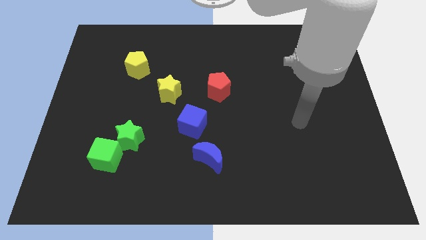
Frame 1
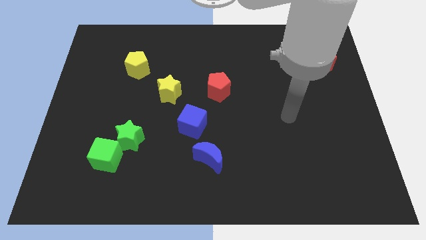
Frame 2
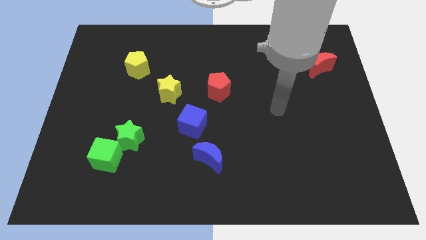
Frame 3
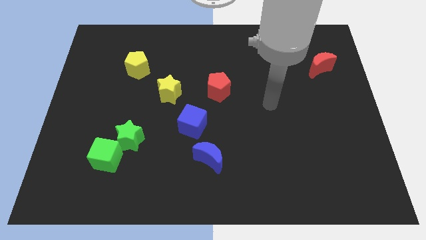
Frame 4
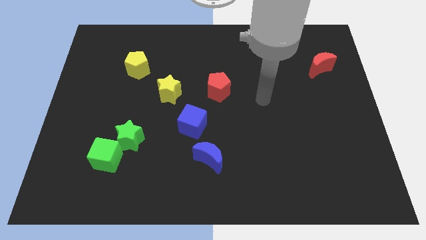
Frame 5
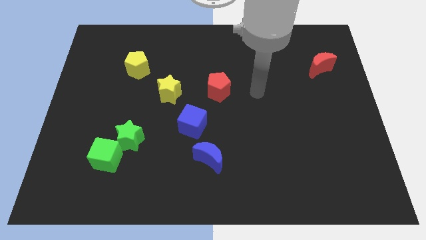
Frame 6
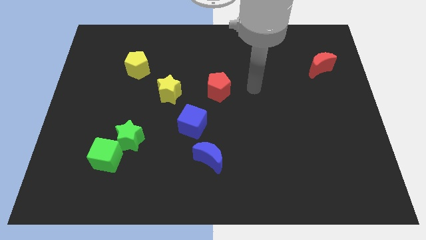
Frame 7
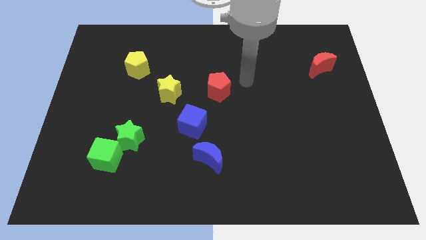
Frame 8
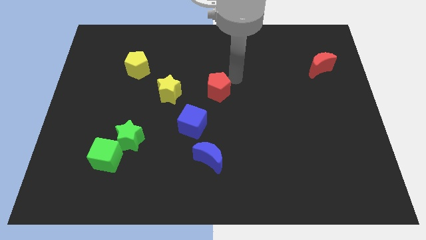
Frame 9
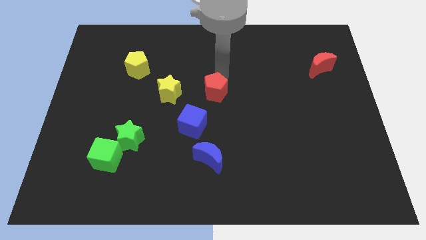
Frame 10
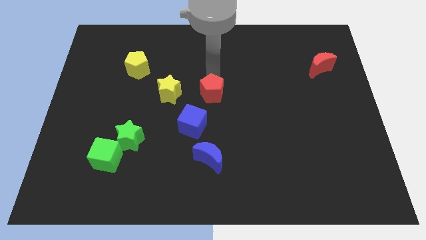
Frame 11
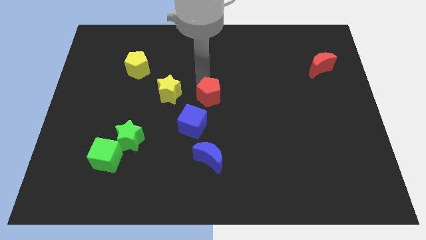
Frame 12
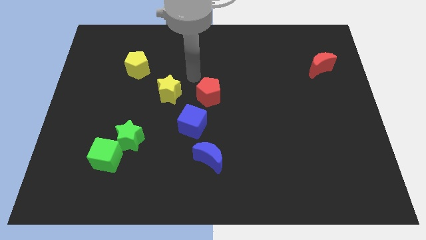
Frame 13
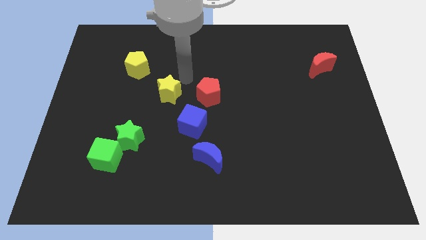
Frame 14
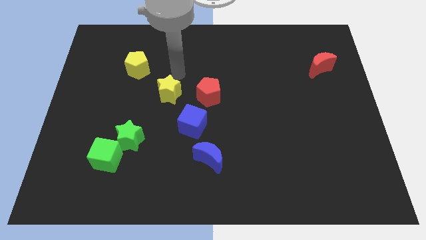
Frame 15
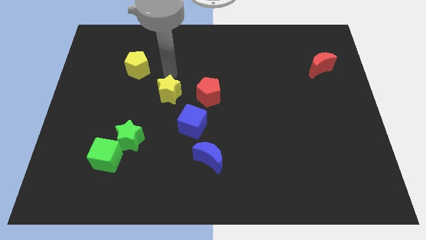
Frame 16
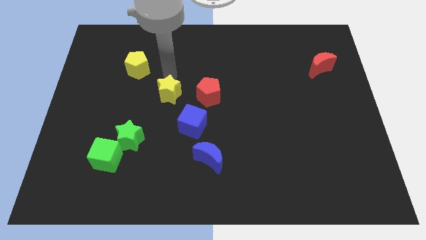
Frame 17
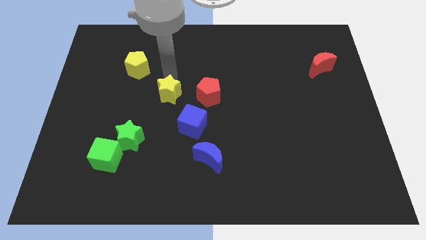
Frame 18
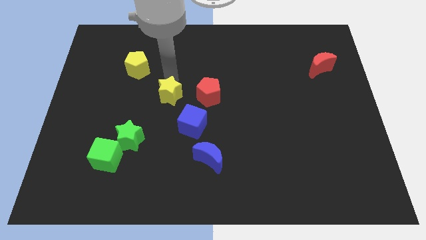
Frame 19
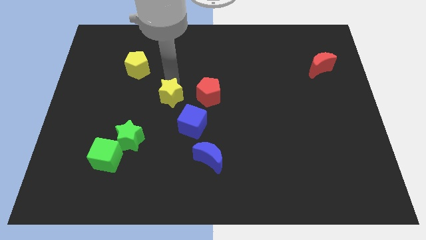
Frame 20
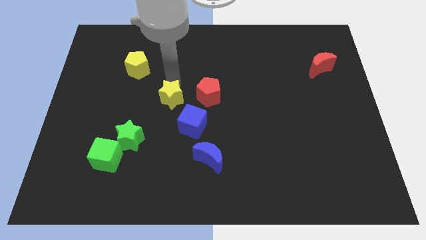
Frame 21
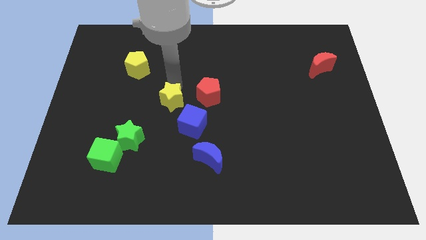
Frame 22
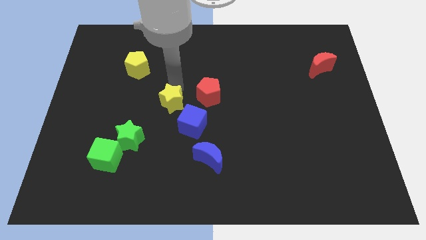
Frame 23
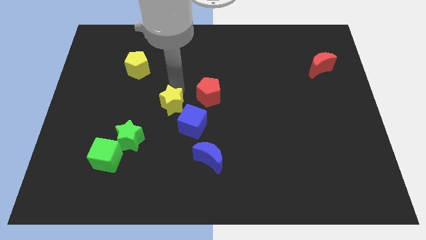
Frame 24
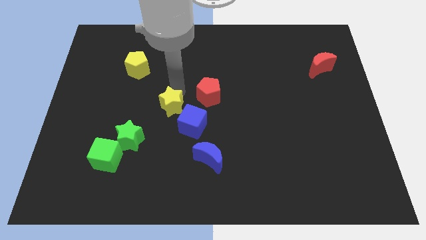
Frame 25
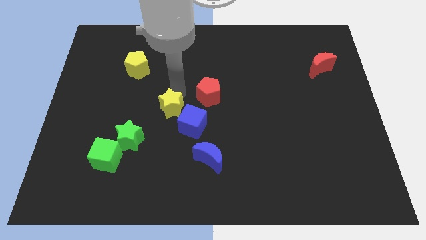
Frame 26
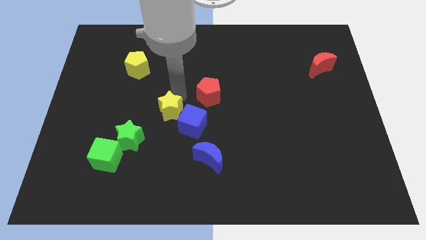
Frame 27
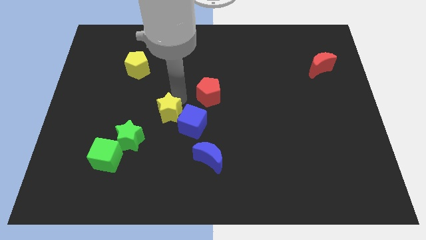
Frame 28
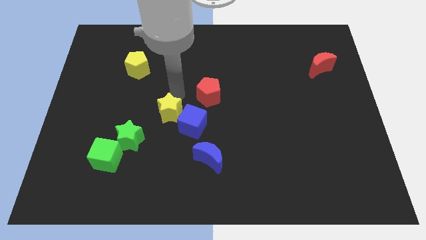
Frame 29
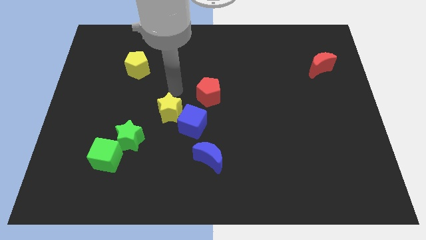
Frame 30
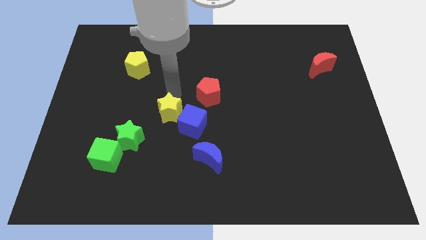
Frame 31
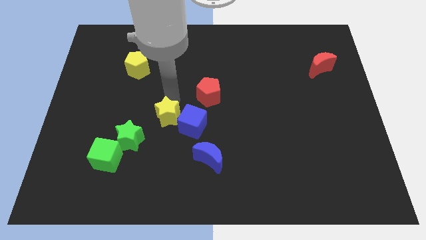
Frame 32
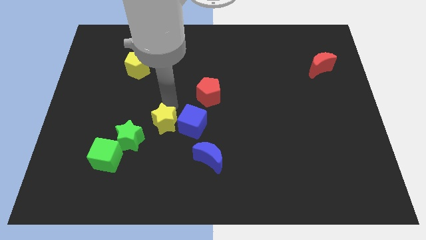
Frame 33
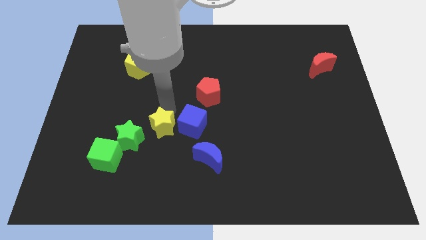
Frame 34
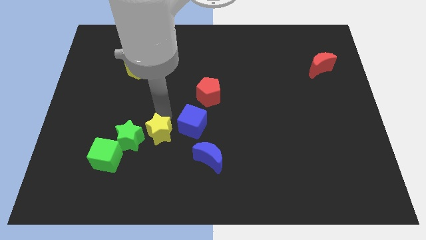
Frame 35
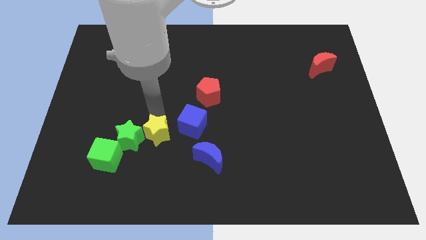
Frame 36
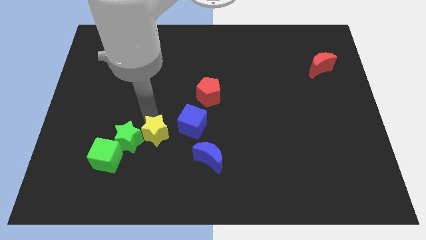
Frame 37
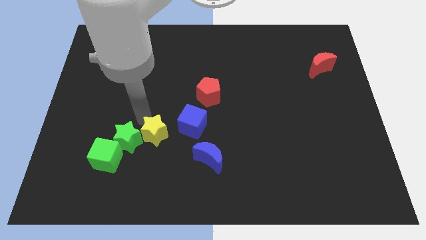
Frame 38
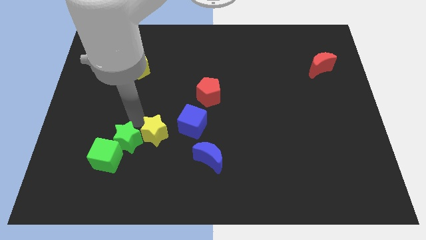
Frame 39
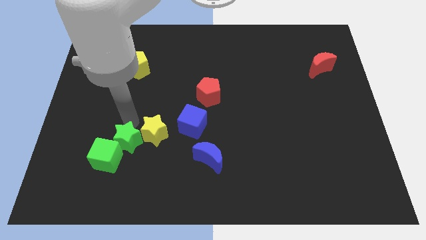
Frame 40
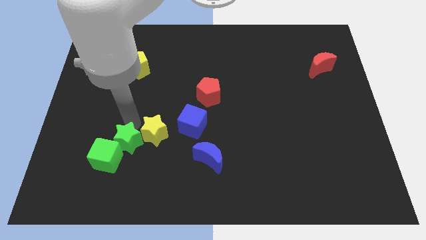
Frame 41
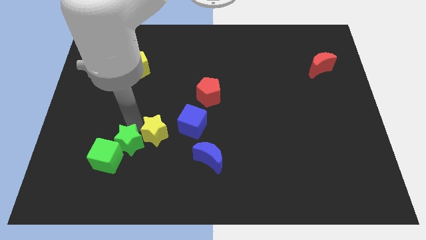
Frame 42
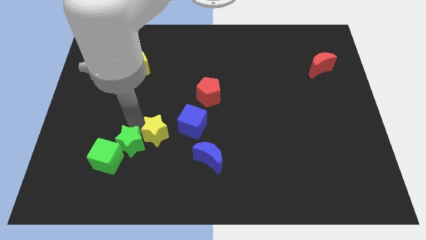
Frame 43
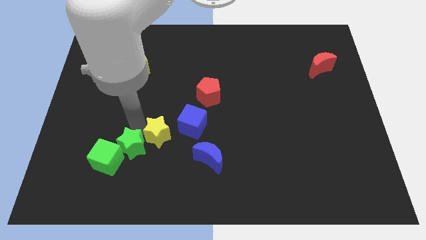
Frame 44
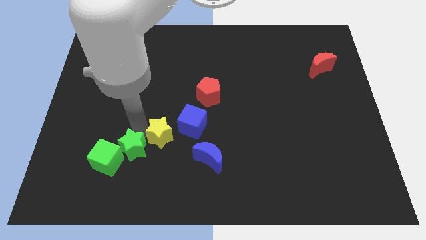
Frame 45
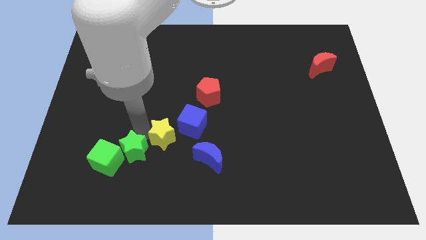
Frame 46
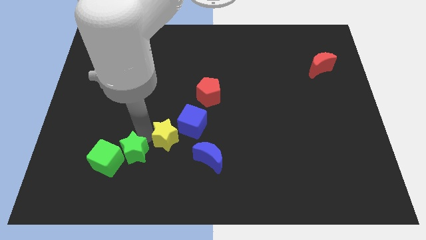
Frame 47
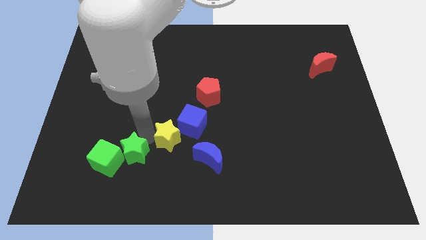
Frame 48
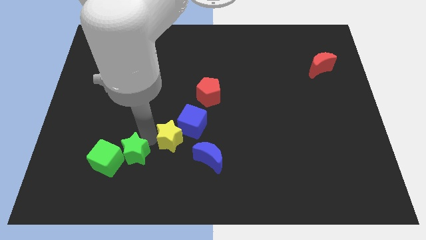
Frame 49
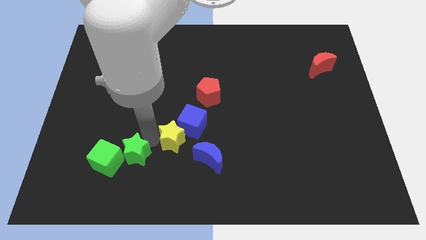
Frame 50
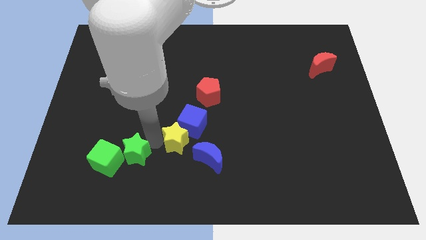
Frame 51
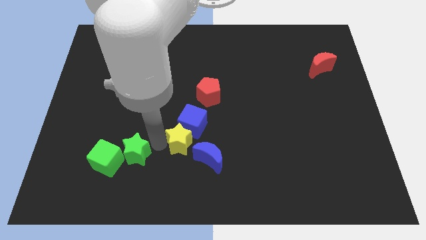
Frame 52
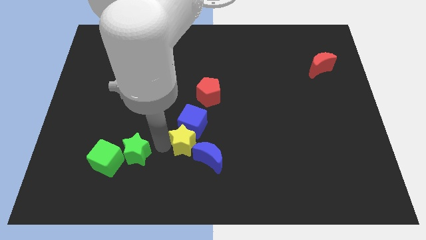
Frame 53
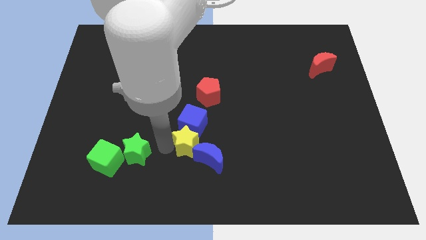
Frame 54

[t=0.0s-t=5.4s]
move the yellow star to the blue moon

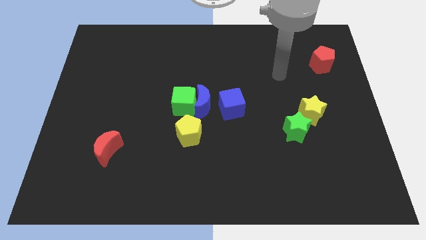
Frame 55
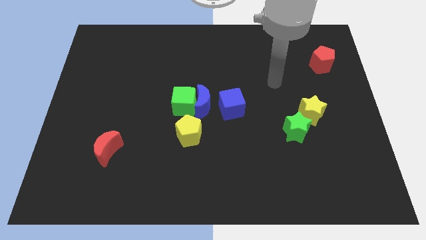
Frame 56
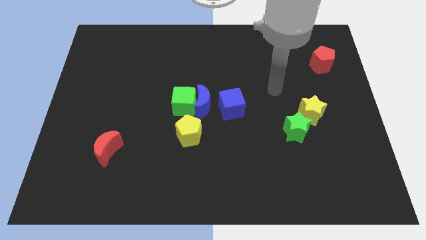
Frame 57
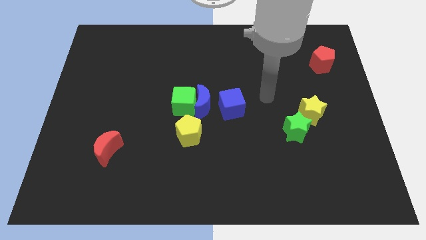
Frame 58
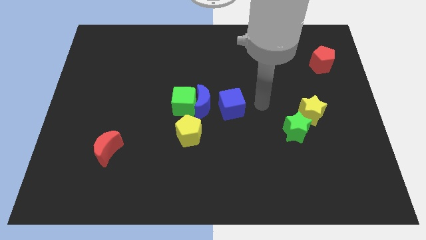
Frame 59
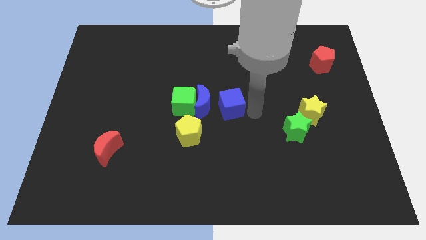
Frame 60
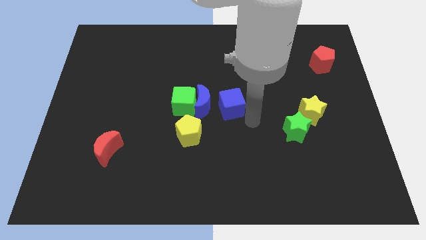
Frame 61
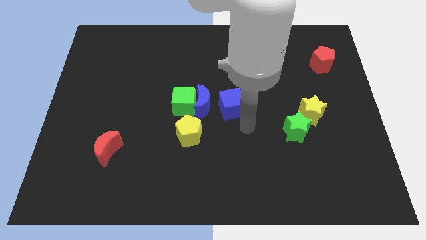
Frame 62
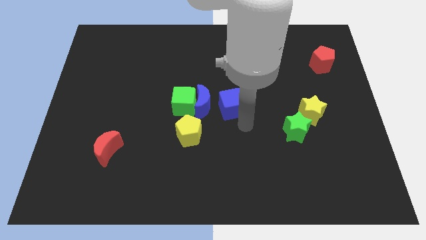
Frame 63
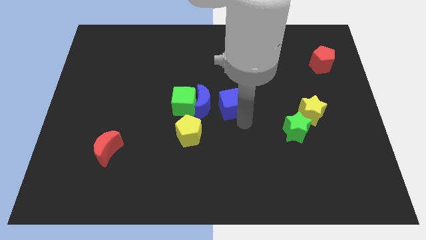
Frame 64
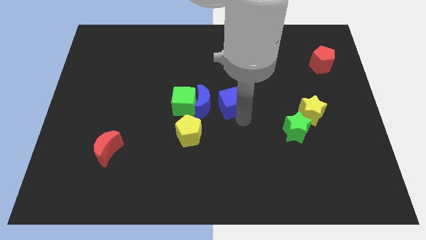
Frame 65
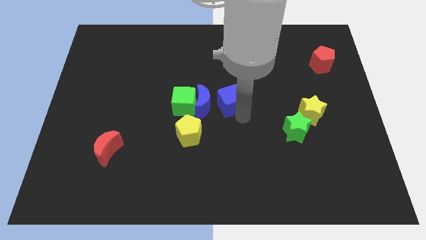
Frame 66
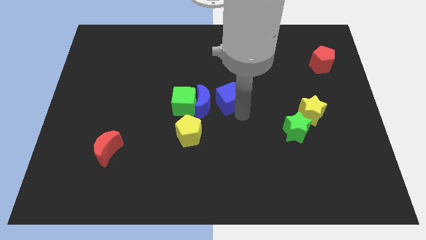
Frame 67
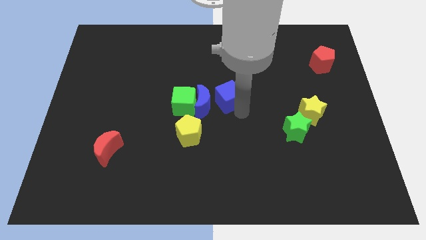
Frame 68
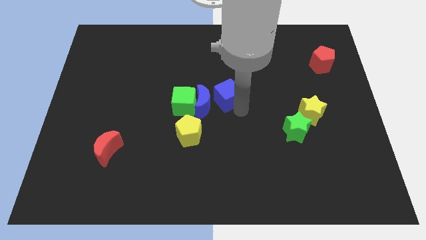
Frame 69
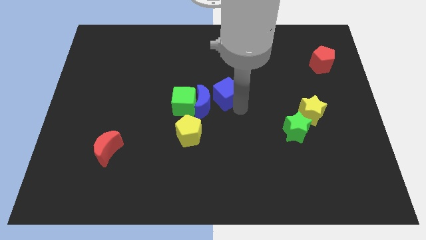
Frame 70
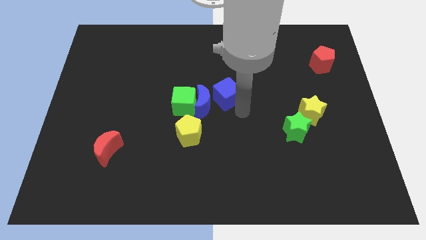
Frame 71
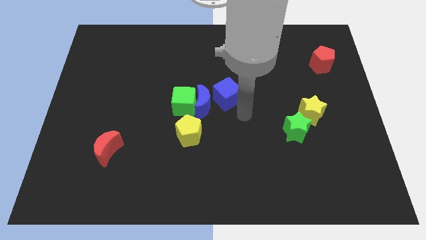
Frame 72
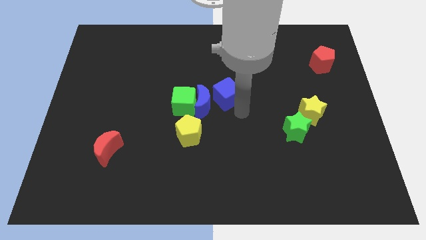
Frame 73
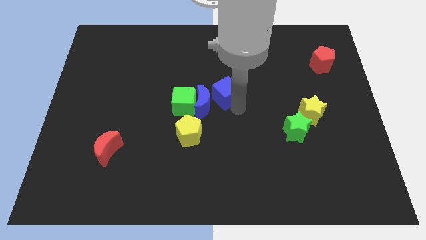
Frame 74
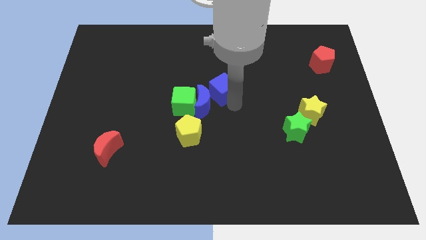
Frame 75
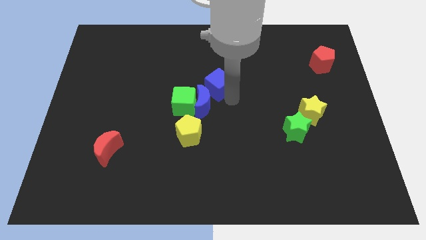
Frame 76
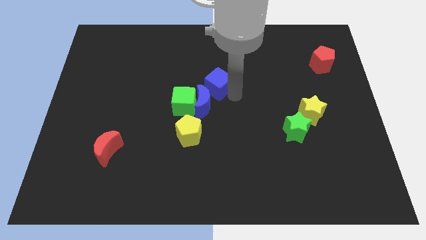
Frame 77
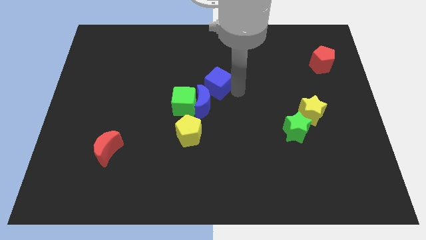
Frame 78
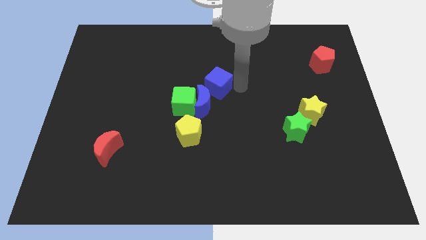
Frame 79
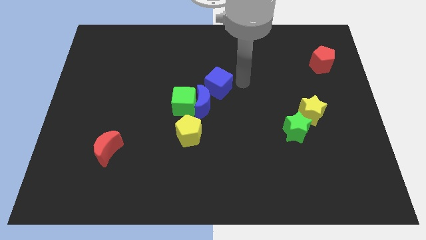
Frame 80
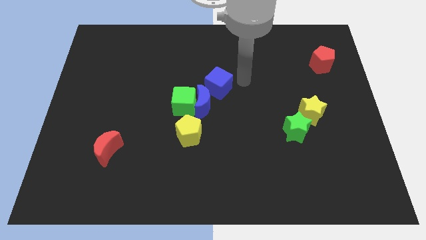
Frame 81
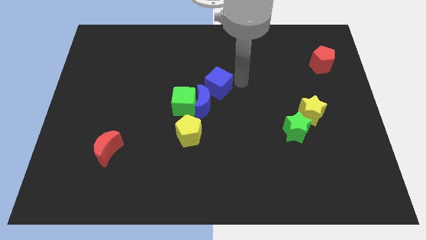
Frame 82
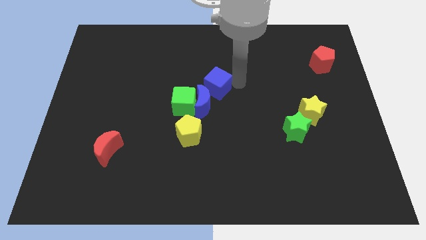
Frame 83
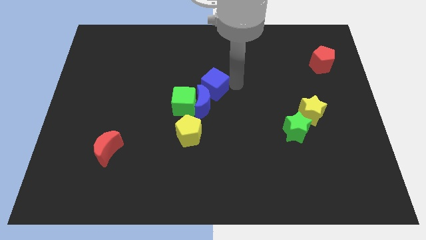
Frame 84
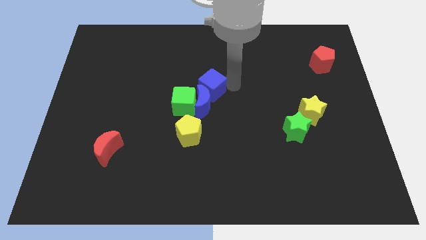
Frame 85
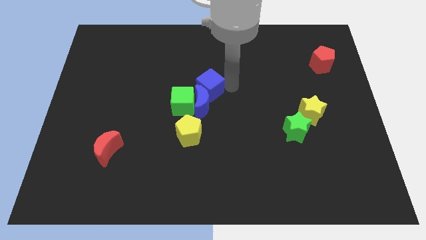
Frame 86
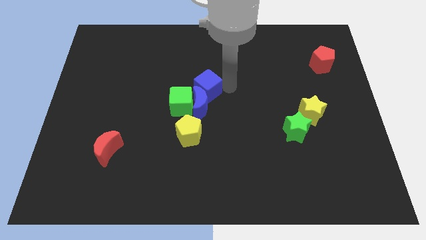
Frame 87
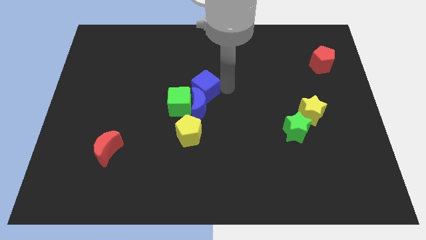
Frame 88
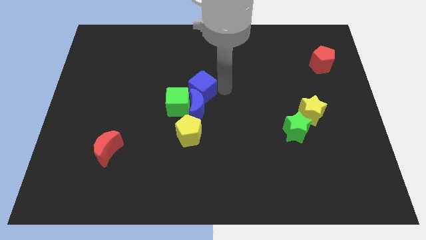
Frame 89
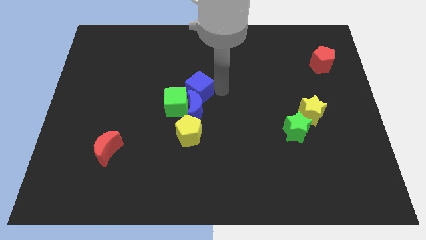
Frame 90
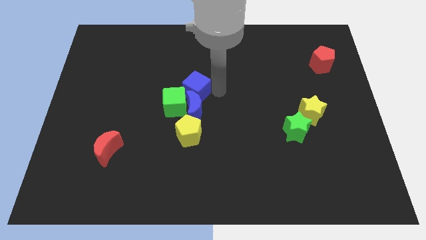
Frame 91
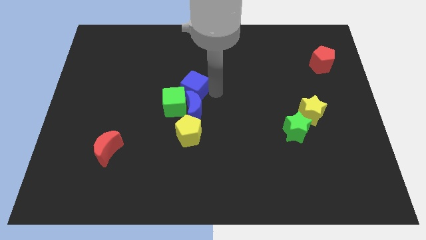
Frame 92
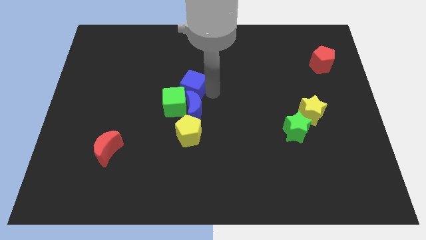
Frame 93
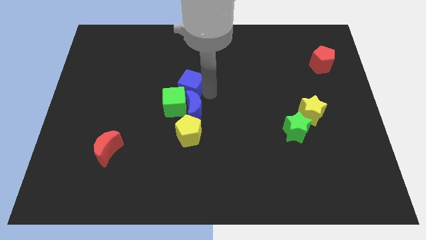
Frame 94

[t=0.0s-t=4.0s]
slide the blue cube close to the green cube
